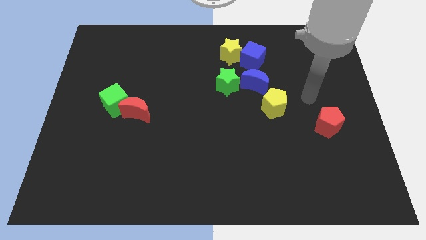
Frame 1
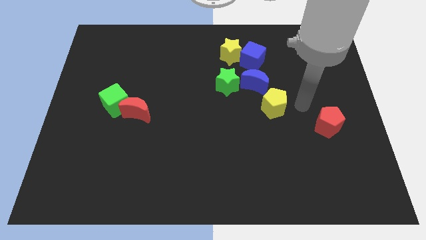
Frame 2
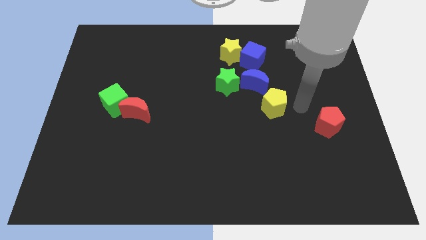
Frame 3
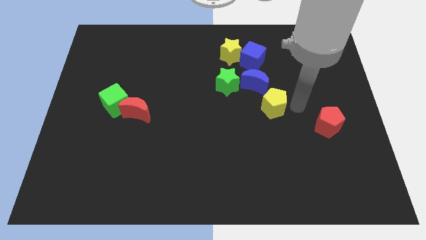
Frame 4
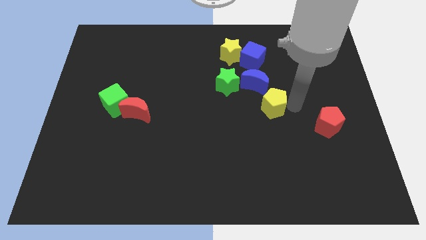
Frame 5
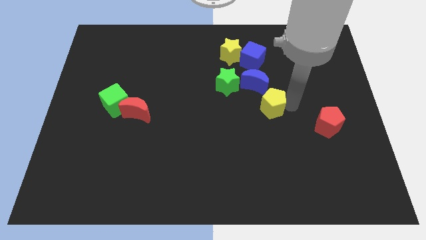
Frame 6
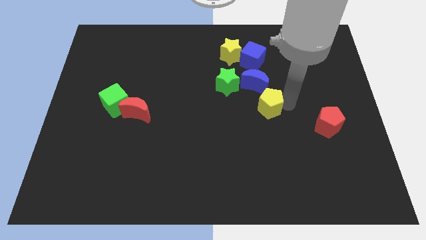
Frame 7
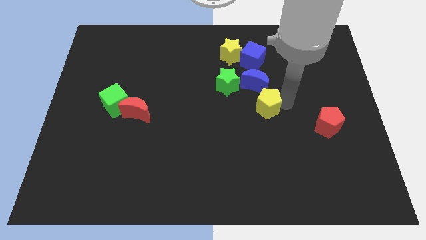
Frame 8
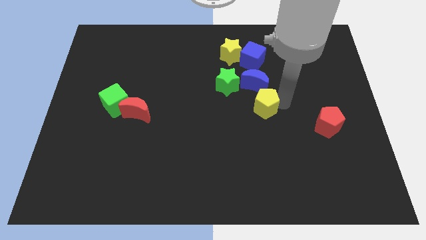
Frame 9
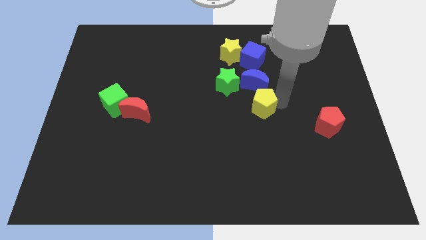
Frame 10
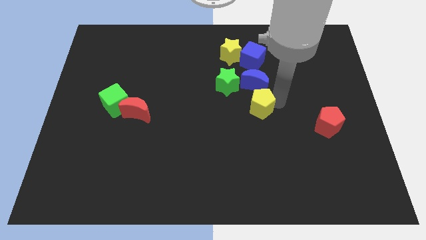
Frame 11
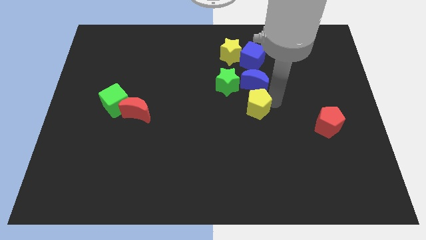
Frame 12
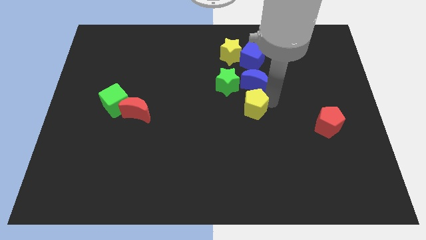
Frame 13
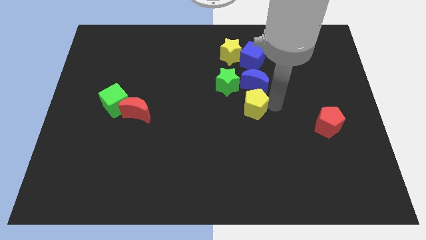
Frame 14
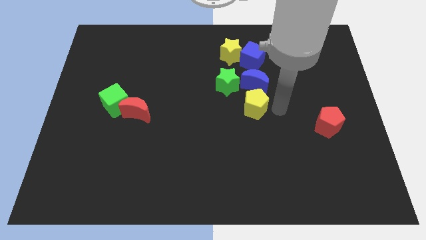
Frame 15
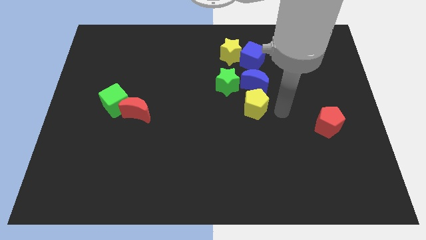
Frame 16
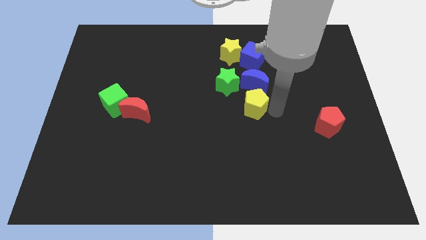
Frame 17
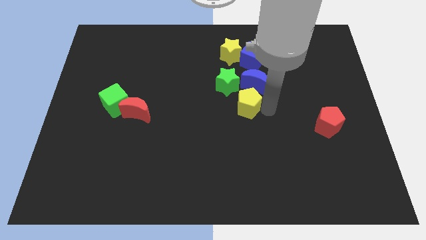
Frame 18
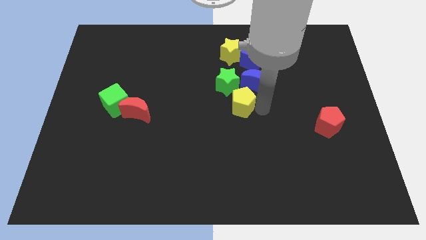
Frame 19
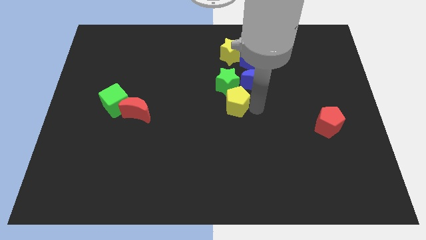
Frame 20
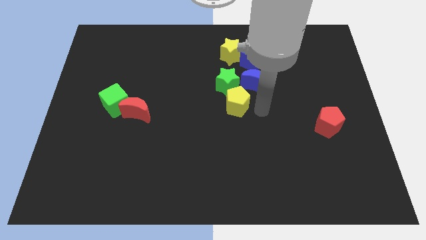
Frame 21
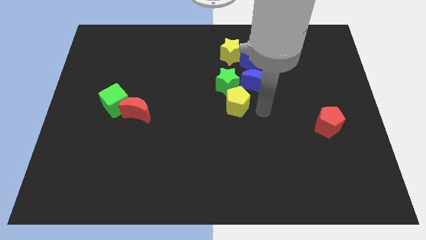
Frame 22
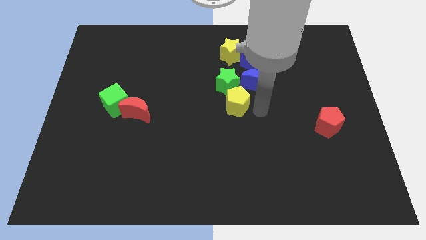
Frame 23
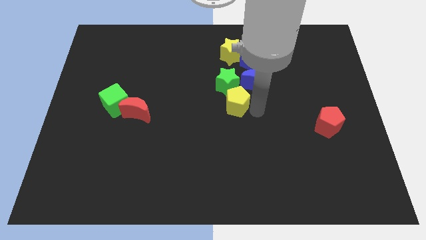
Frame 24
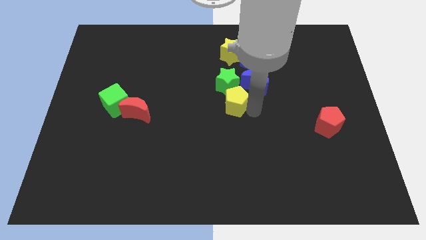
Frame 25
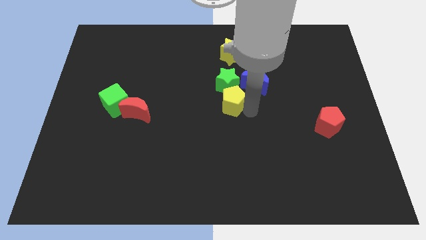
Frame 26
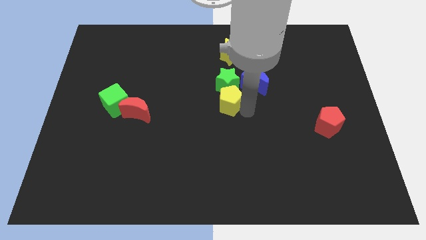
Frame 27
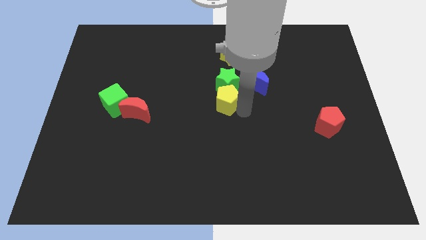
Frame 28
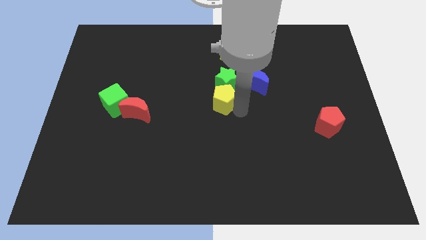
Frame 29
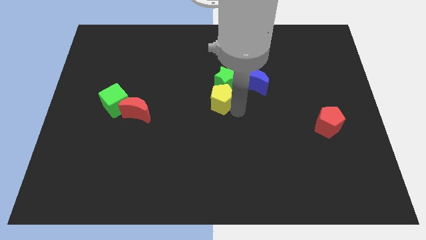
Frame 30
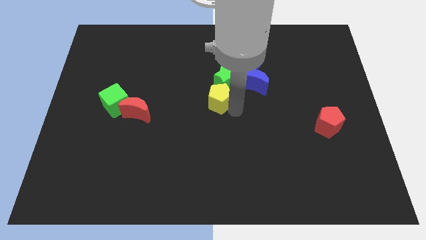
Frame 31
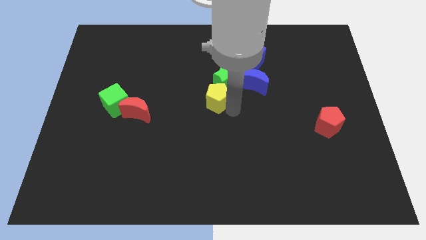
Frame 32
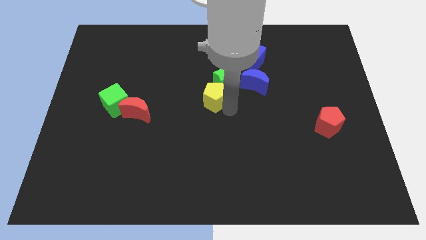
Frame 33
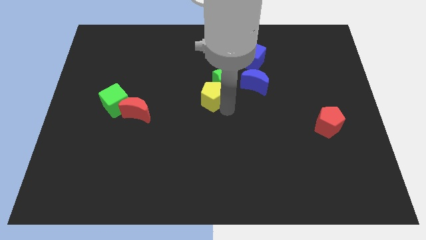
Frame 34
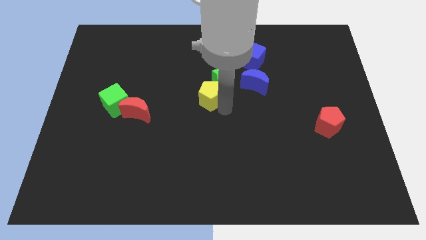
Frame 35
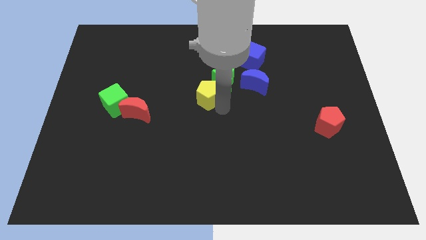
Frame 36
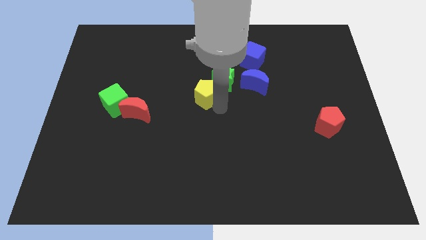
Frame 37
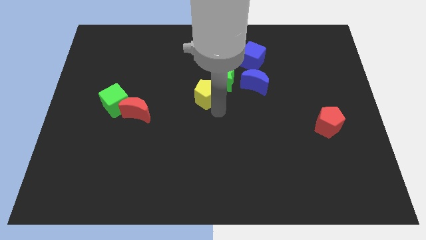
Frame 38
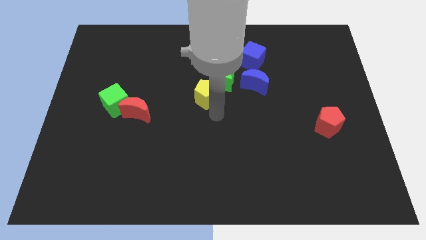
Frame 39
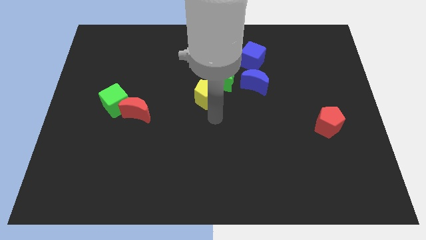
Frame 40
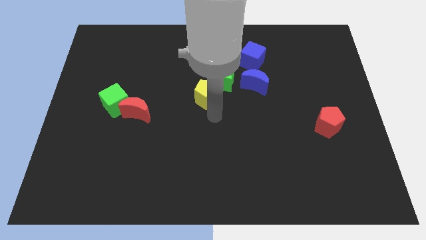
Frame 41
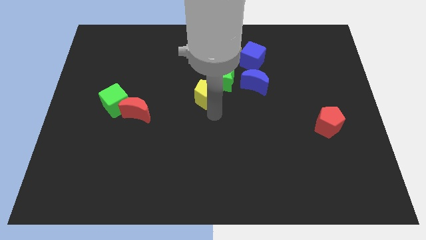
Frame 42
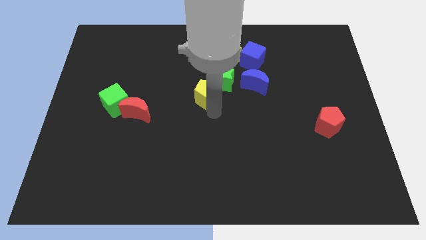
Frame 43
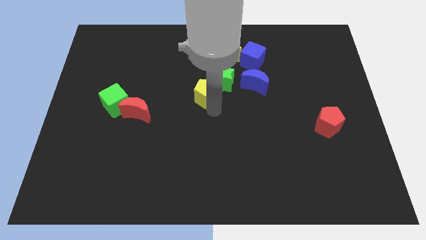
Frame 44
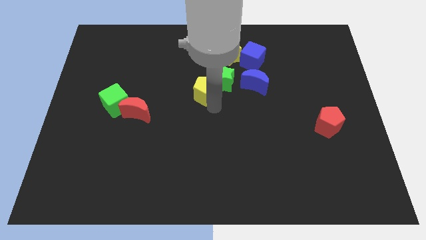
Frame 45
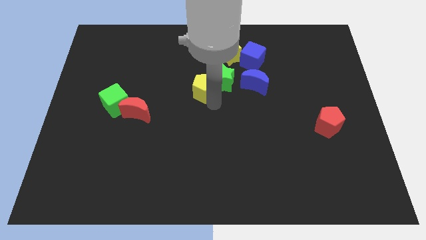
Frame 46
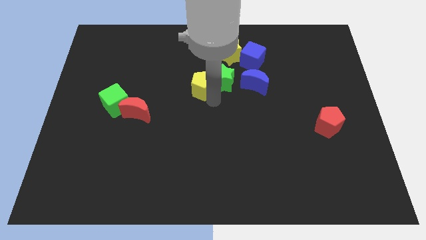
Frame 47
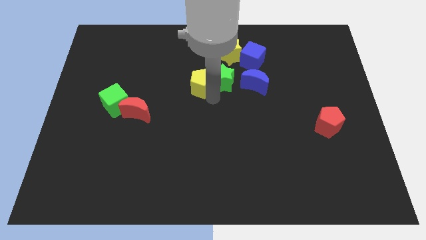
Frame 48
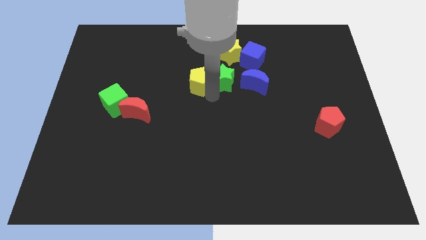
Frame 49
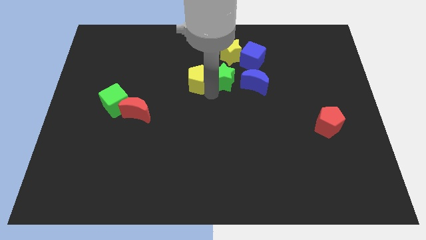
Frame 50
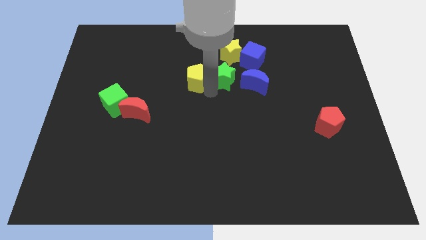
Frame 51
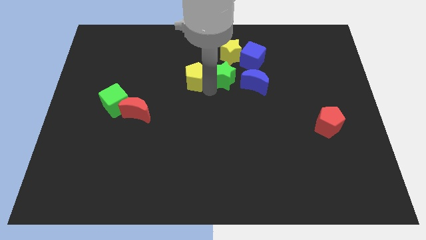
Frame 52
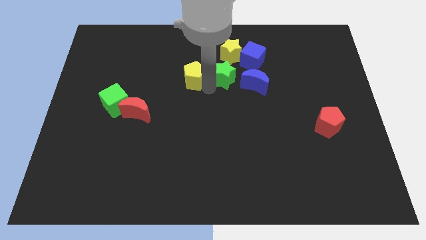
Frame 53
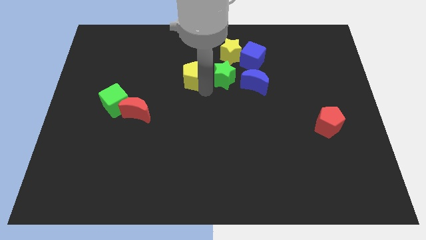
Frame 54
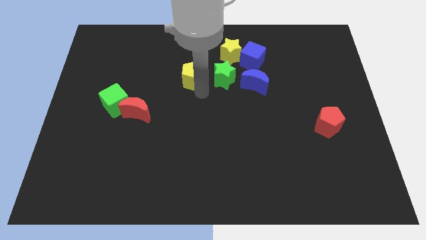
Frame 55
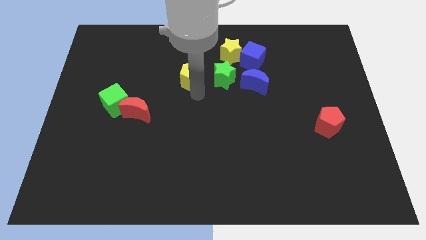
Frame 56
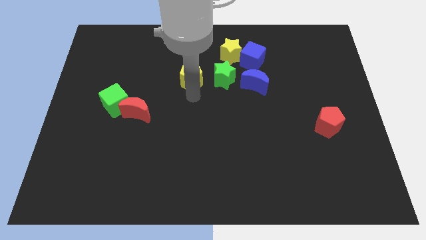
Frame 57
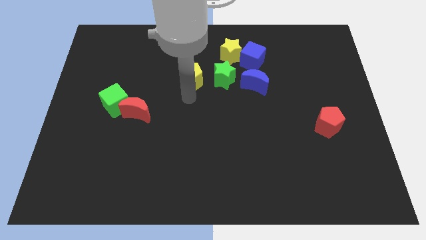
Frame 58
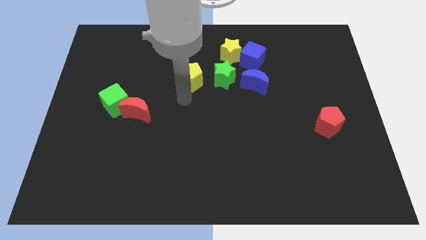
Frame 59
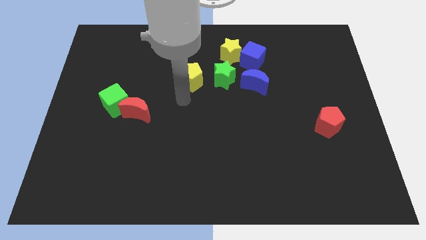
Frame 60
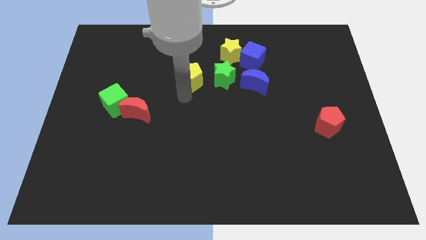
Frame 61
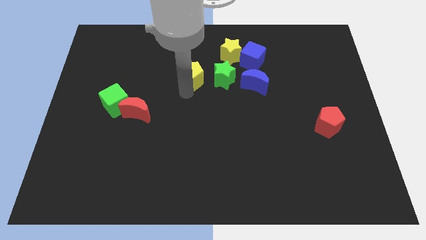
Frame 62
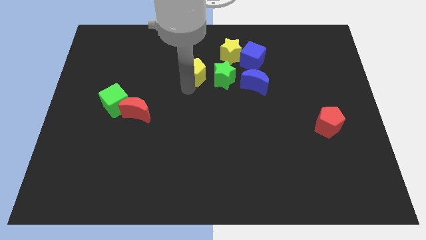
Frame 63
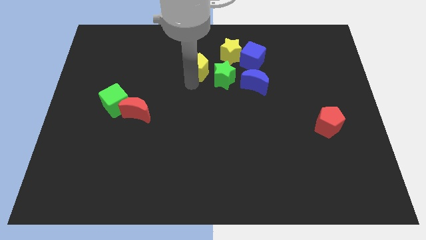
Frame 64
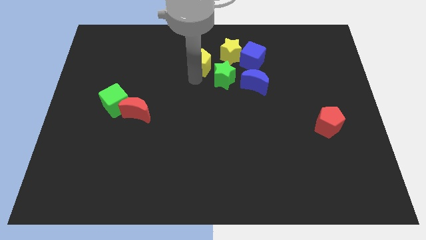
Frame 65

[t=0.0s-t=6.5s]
push the yellow pentagon to the left of the yellow star
